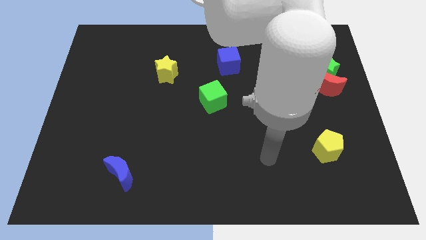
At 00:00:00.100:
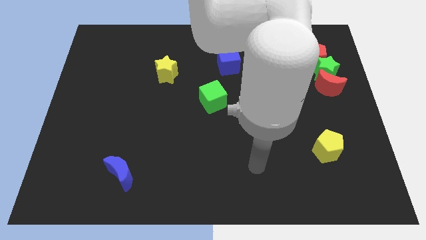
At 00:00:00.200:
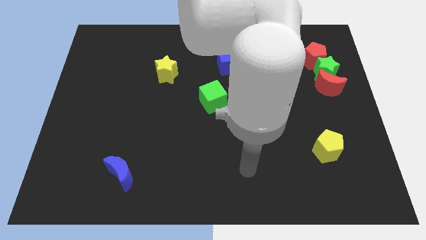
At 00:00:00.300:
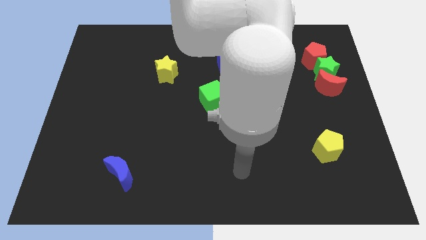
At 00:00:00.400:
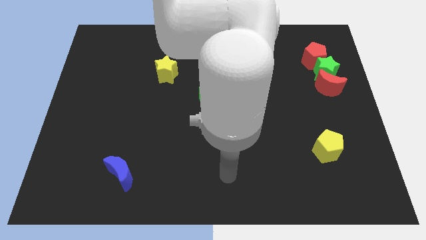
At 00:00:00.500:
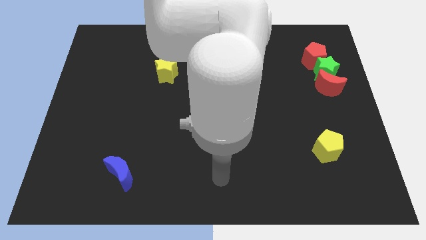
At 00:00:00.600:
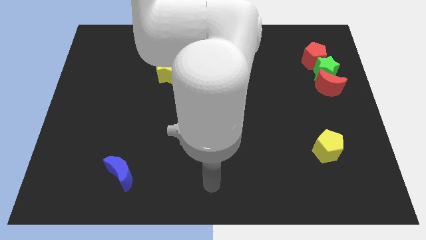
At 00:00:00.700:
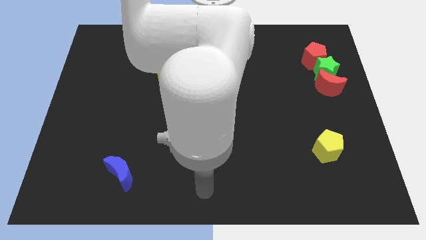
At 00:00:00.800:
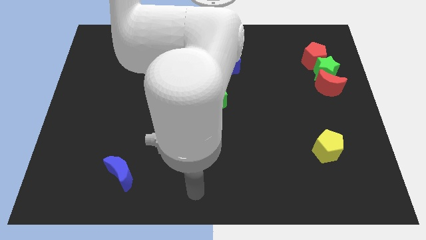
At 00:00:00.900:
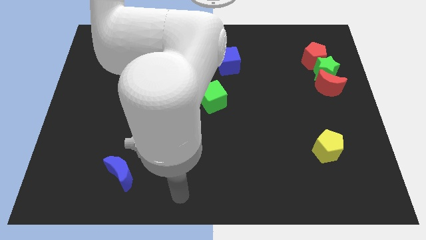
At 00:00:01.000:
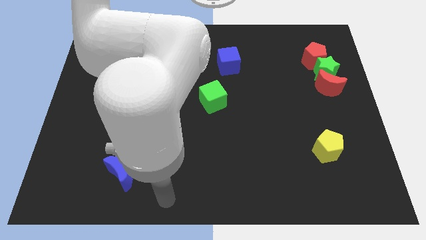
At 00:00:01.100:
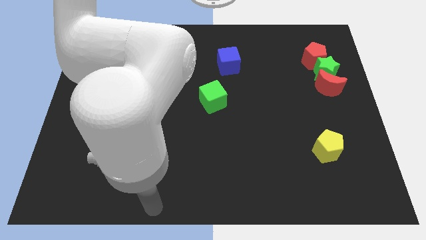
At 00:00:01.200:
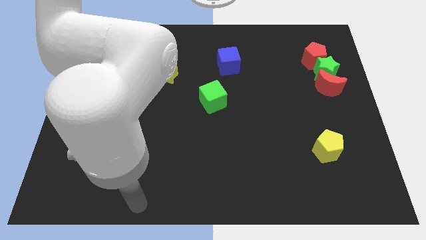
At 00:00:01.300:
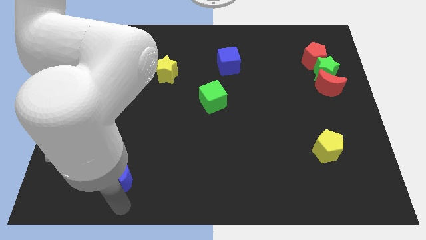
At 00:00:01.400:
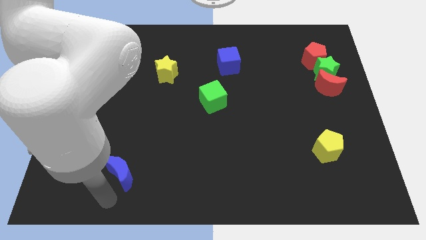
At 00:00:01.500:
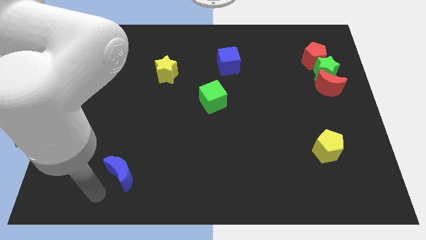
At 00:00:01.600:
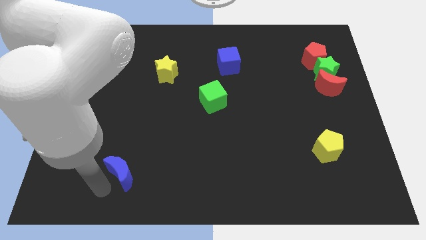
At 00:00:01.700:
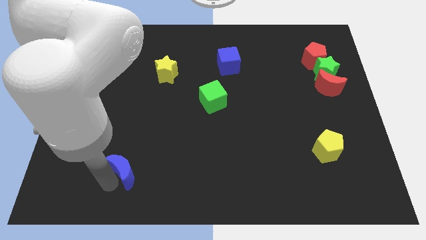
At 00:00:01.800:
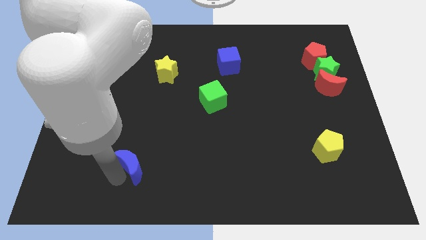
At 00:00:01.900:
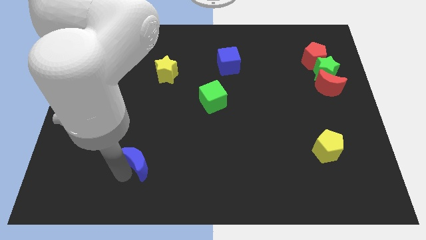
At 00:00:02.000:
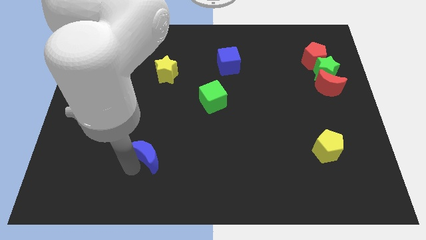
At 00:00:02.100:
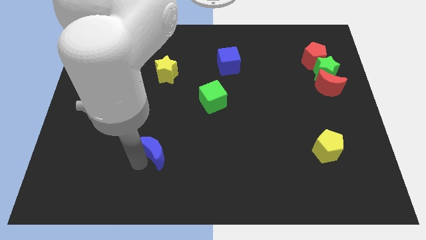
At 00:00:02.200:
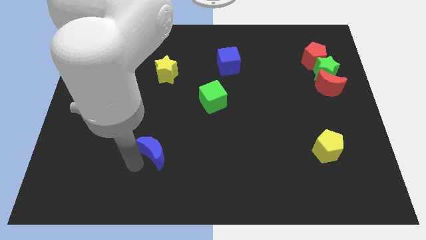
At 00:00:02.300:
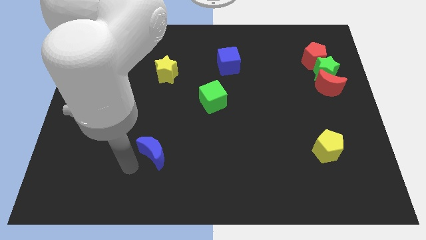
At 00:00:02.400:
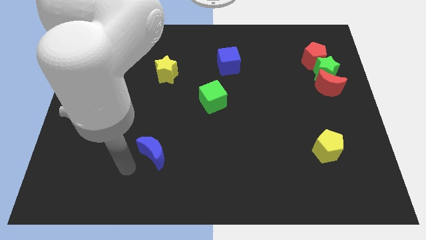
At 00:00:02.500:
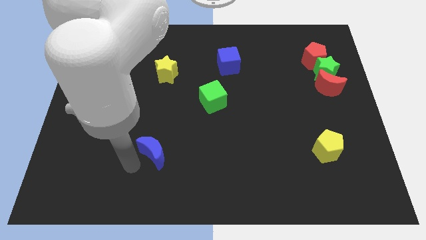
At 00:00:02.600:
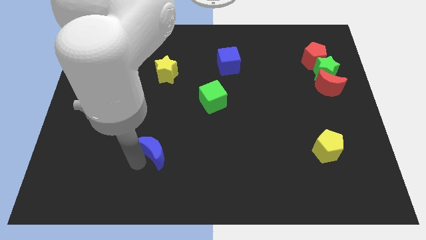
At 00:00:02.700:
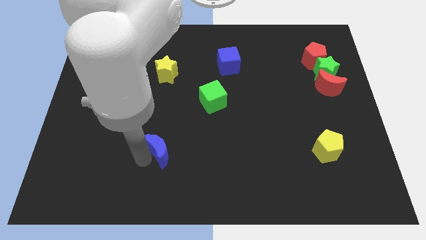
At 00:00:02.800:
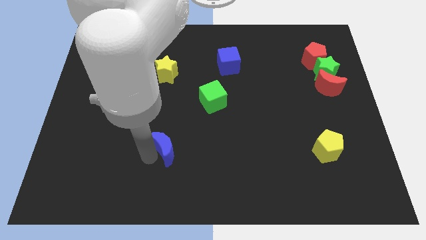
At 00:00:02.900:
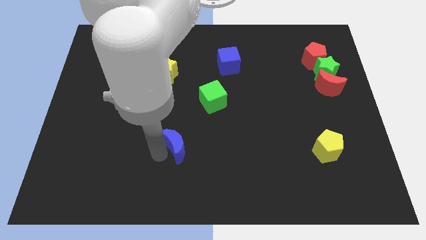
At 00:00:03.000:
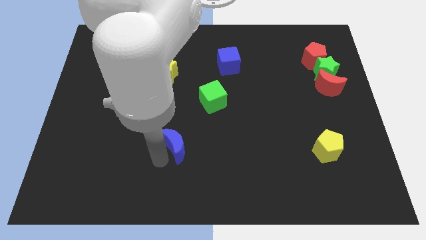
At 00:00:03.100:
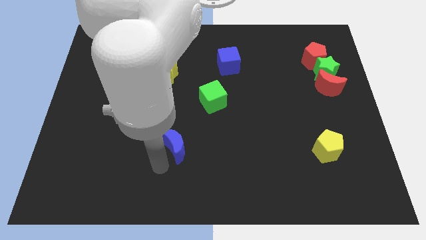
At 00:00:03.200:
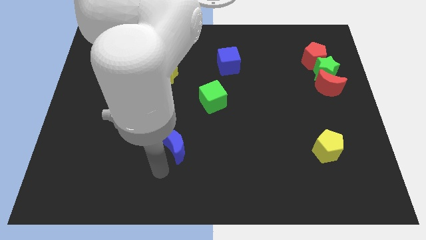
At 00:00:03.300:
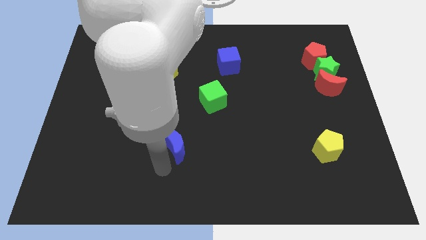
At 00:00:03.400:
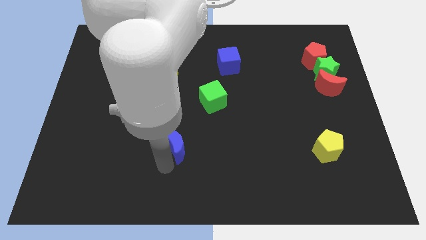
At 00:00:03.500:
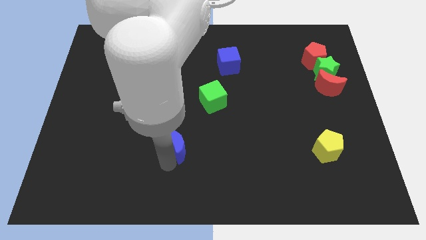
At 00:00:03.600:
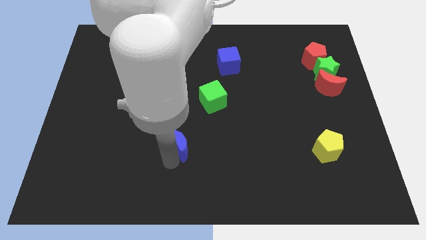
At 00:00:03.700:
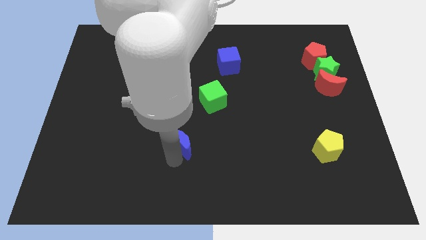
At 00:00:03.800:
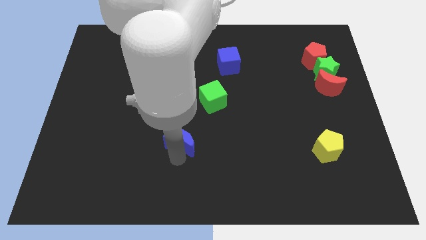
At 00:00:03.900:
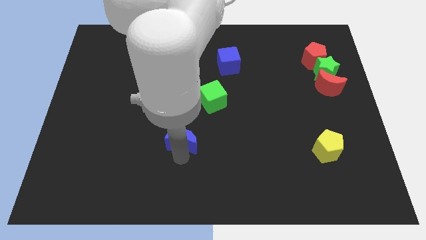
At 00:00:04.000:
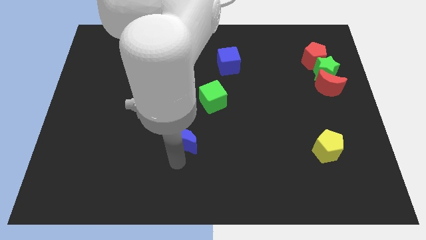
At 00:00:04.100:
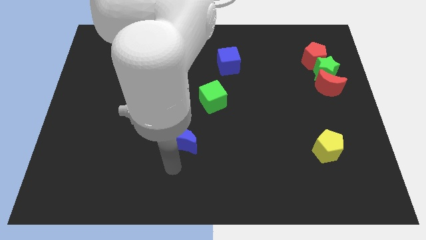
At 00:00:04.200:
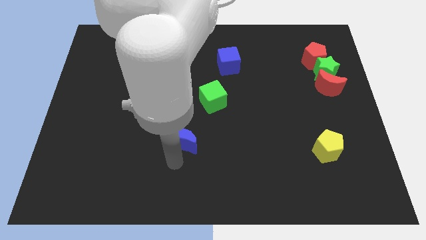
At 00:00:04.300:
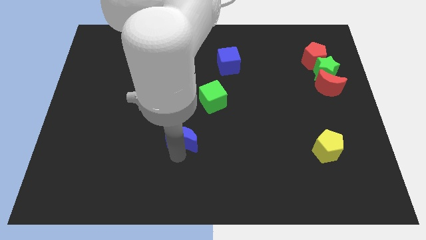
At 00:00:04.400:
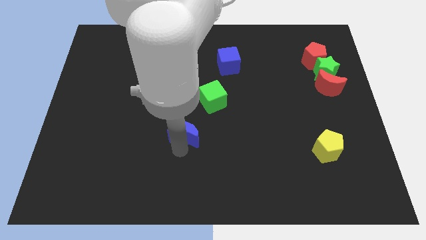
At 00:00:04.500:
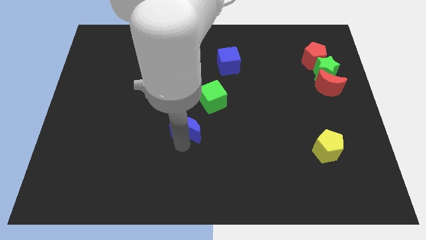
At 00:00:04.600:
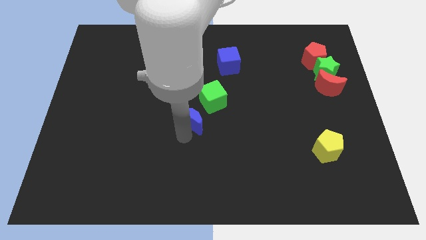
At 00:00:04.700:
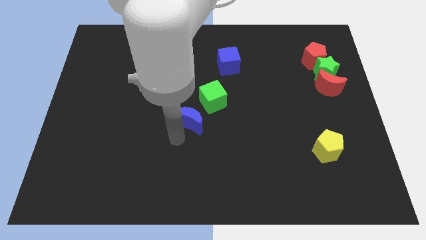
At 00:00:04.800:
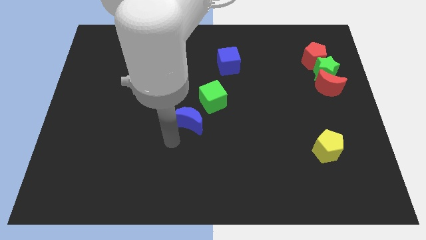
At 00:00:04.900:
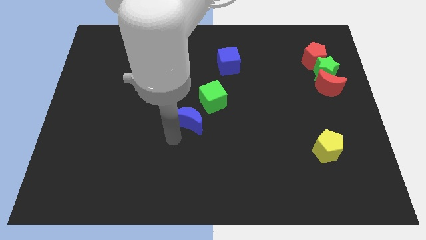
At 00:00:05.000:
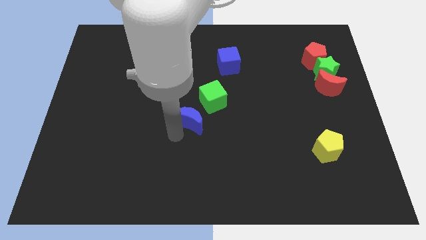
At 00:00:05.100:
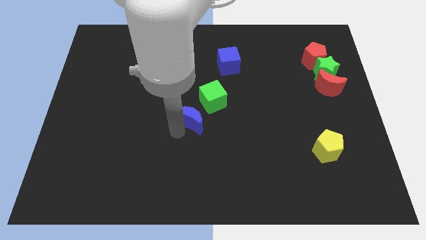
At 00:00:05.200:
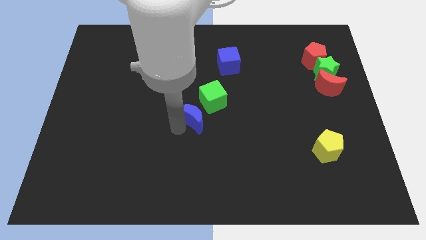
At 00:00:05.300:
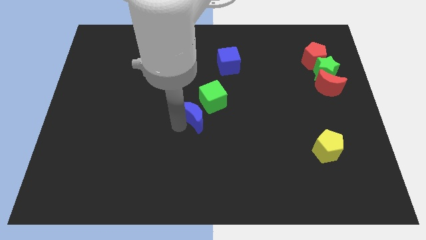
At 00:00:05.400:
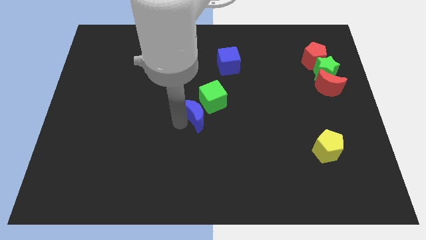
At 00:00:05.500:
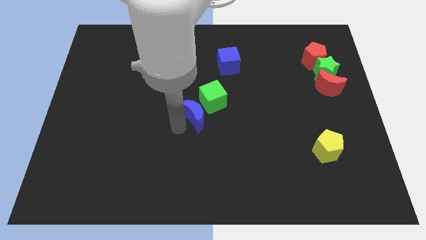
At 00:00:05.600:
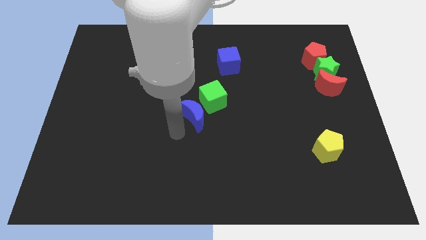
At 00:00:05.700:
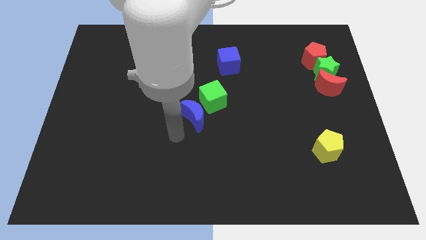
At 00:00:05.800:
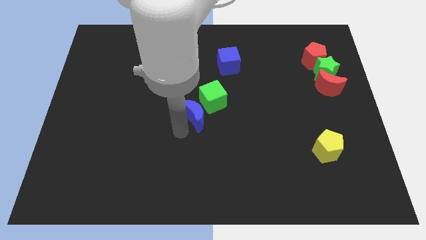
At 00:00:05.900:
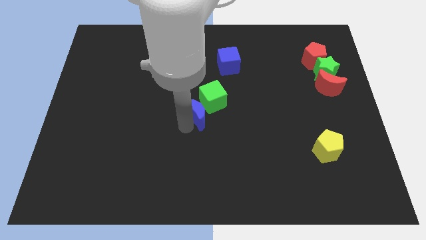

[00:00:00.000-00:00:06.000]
push the blue moon close to the green cube
